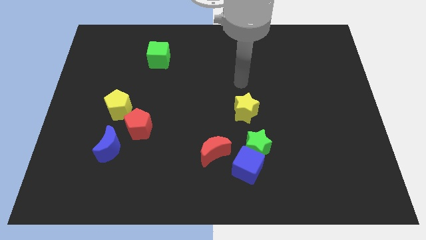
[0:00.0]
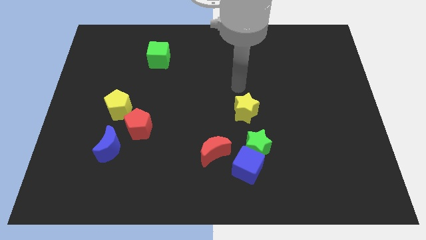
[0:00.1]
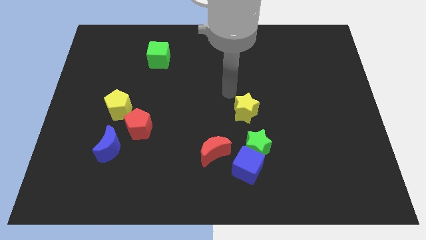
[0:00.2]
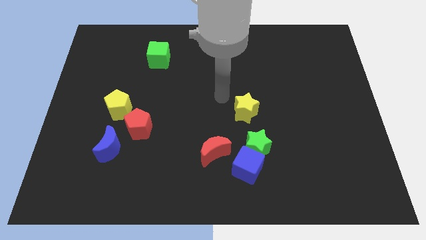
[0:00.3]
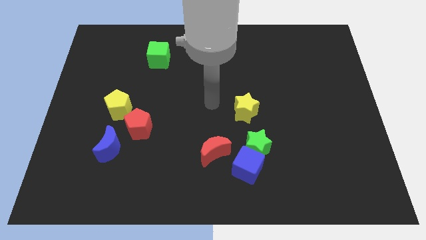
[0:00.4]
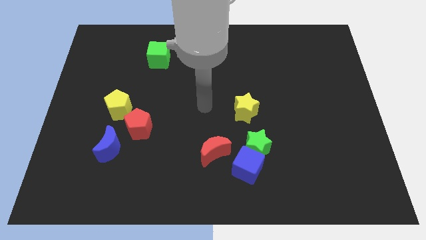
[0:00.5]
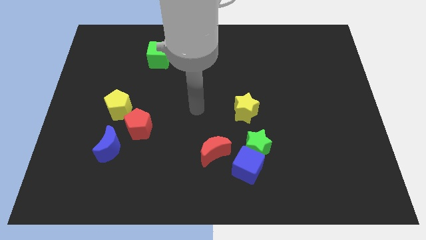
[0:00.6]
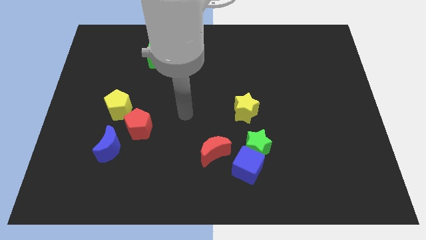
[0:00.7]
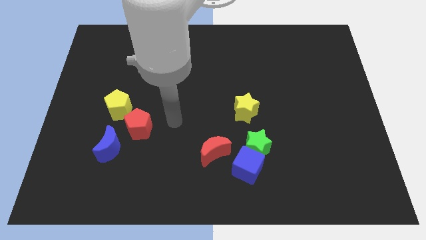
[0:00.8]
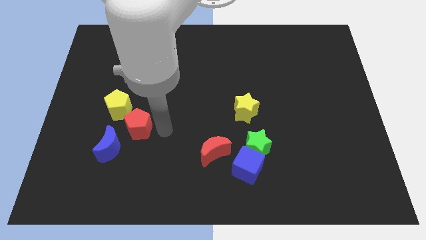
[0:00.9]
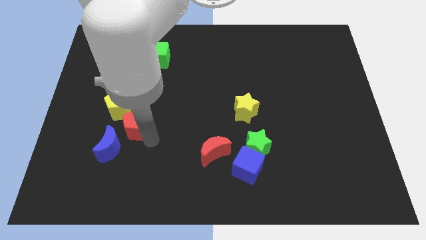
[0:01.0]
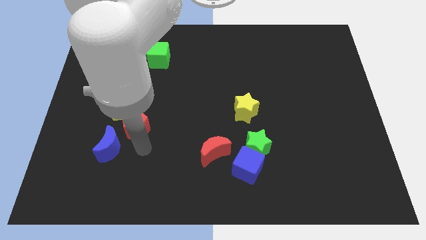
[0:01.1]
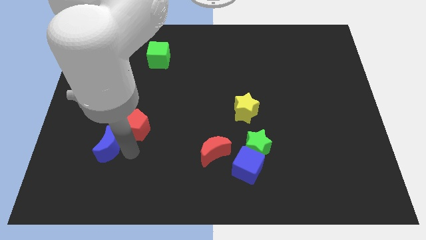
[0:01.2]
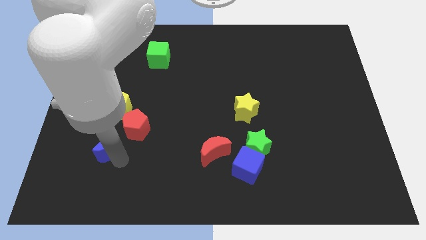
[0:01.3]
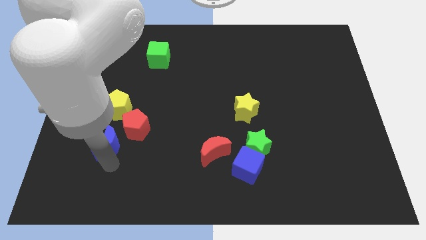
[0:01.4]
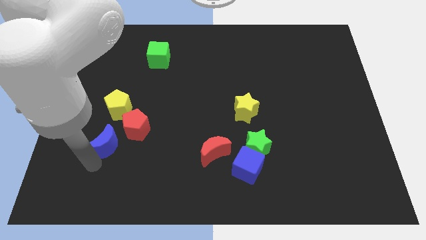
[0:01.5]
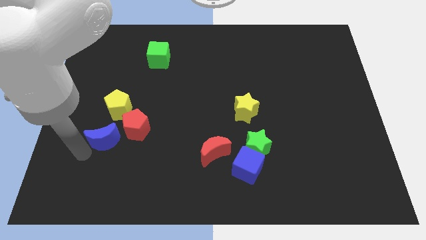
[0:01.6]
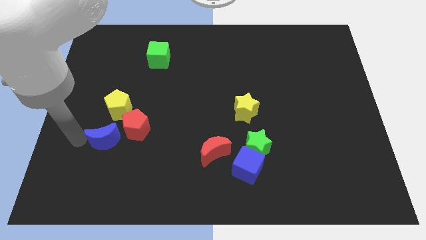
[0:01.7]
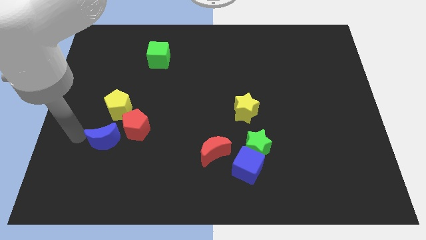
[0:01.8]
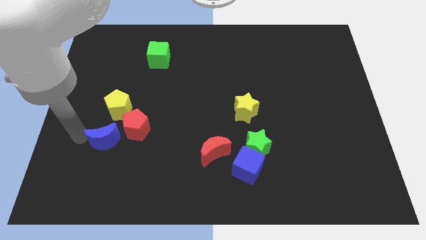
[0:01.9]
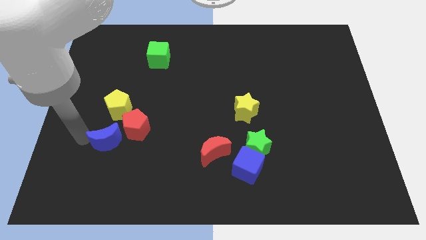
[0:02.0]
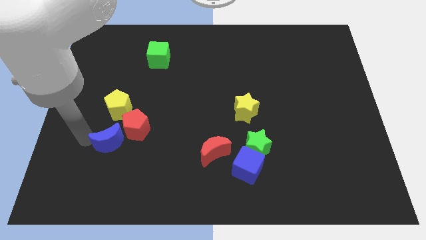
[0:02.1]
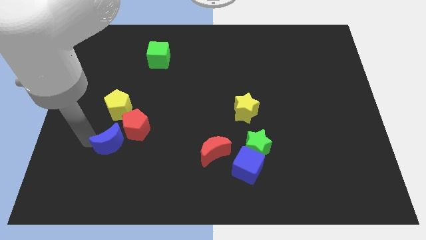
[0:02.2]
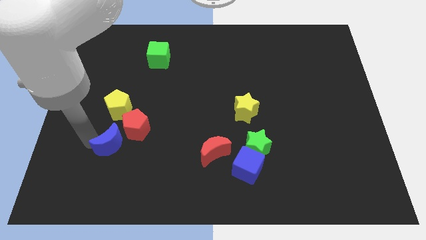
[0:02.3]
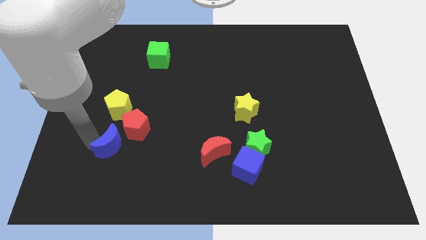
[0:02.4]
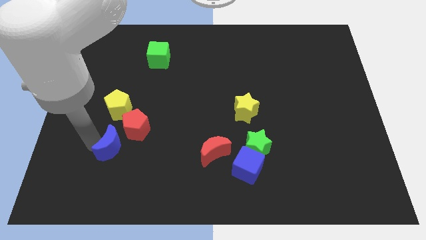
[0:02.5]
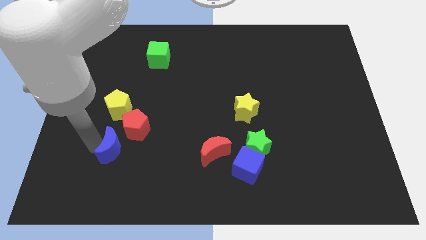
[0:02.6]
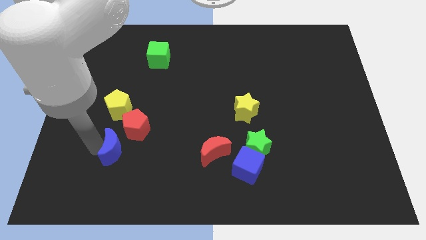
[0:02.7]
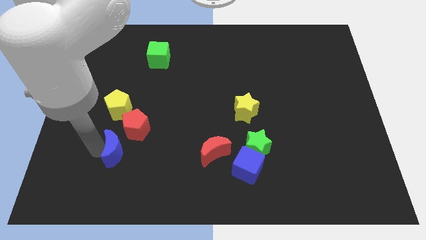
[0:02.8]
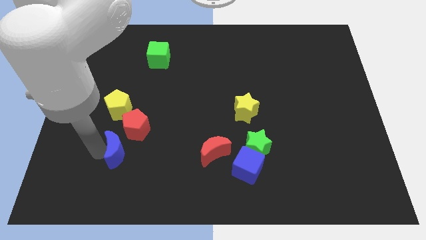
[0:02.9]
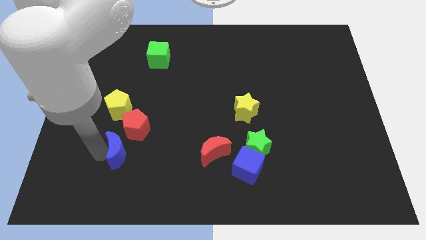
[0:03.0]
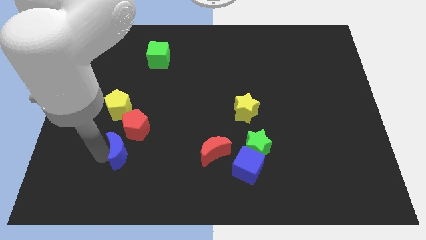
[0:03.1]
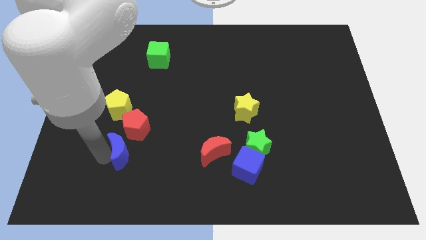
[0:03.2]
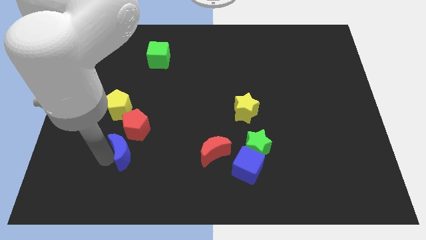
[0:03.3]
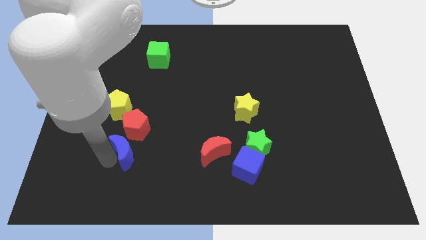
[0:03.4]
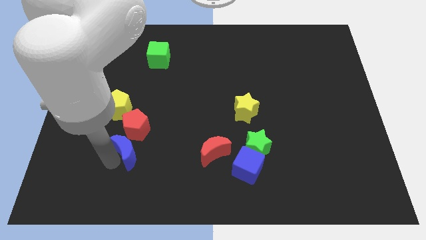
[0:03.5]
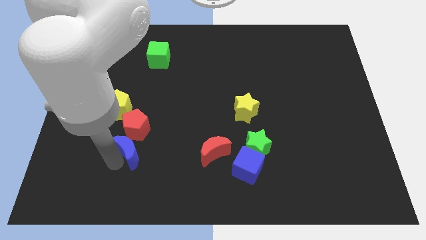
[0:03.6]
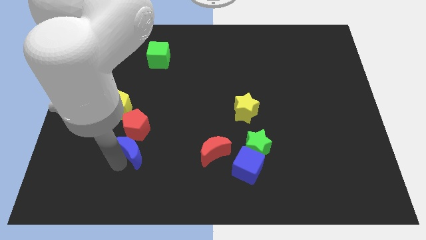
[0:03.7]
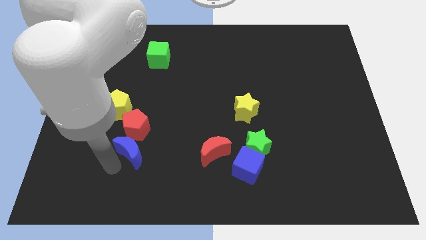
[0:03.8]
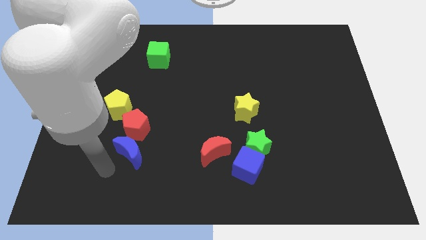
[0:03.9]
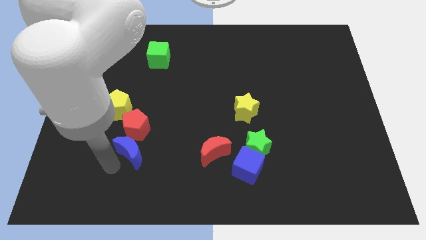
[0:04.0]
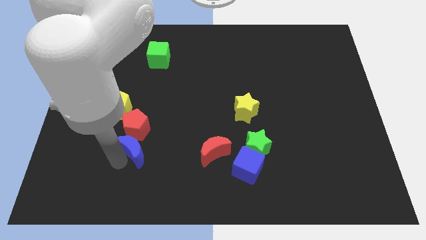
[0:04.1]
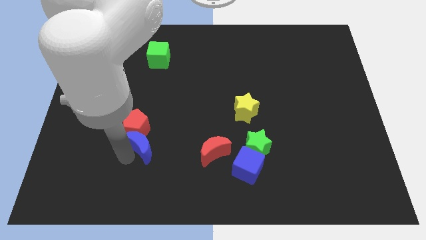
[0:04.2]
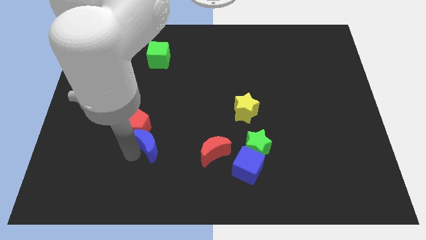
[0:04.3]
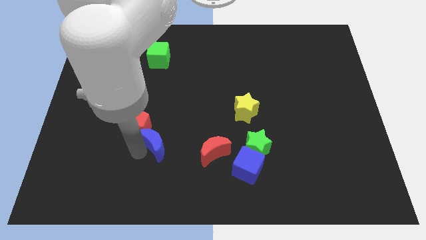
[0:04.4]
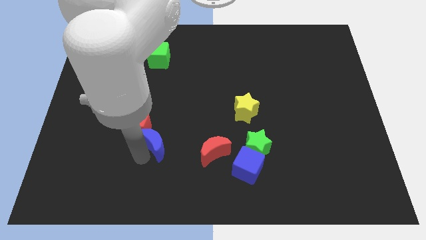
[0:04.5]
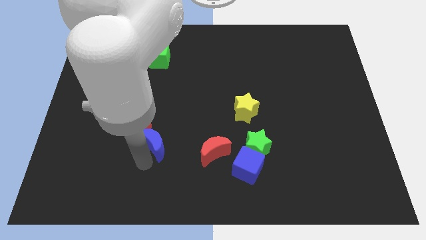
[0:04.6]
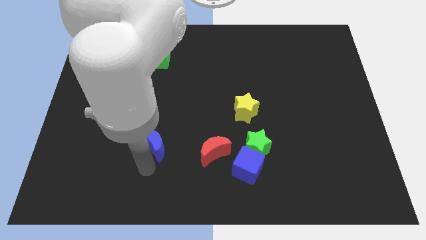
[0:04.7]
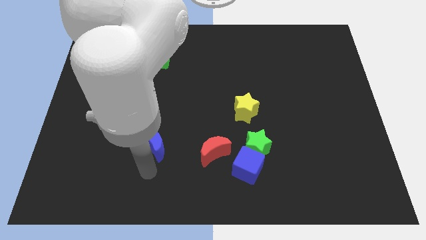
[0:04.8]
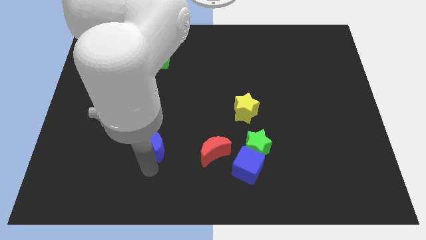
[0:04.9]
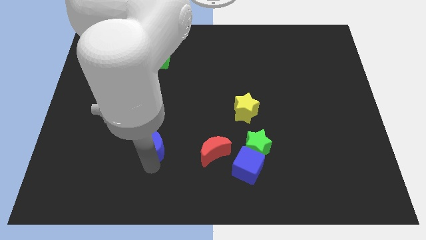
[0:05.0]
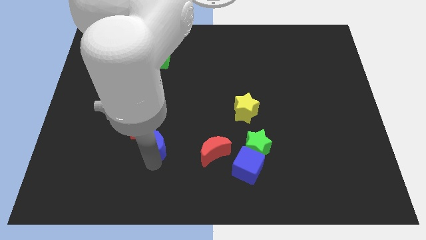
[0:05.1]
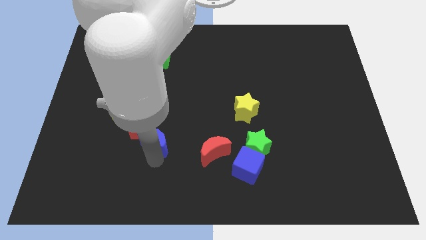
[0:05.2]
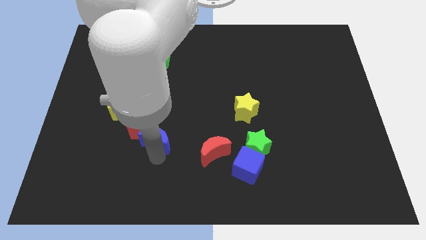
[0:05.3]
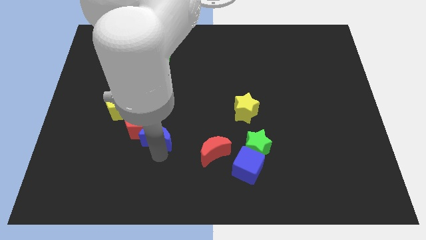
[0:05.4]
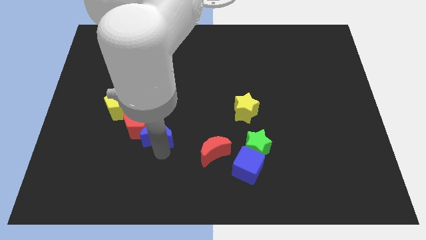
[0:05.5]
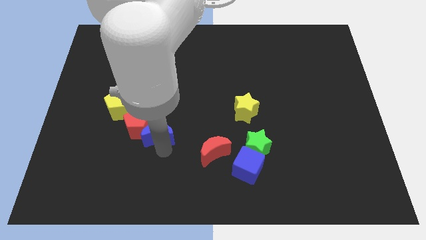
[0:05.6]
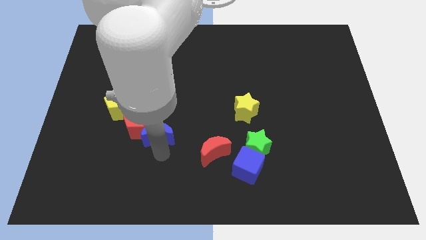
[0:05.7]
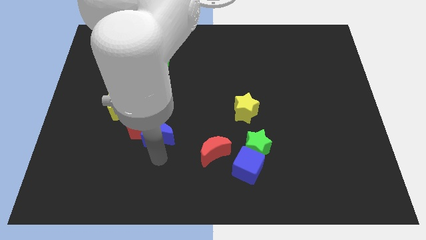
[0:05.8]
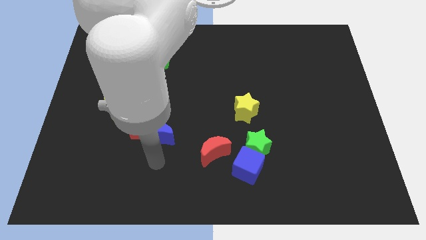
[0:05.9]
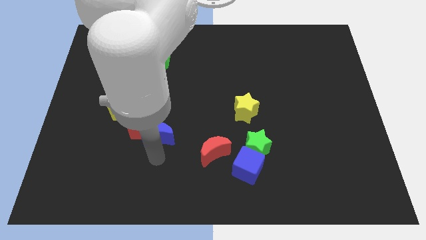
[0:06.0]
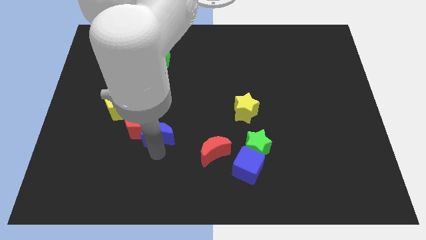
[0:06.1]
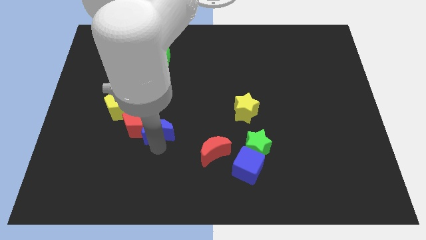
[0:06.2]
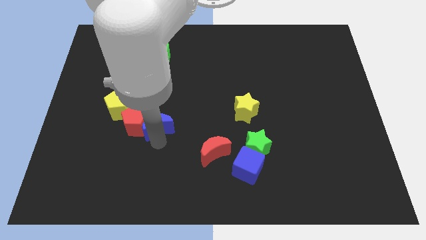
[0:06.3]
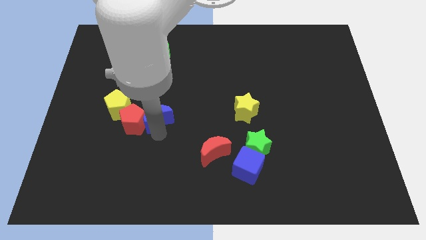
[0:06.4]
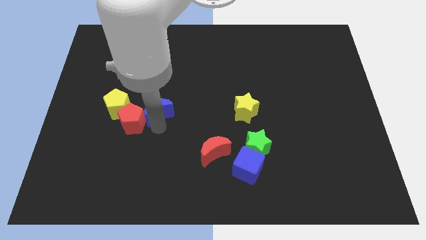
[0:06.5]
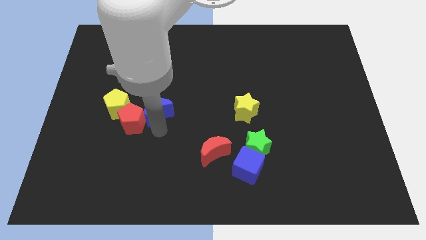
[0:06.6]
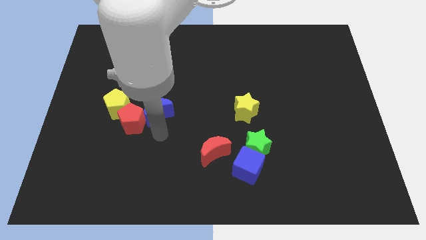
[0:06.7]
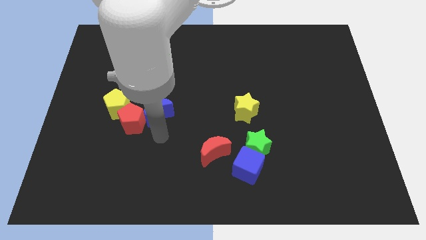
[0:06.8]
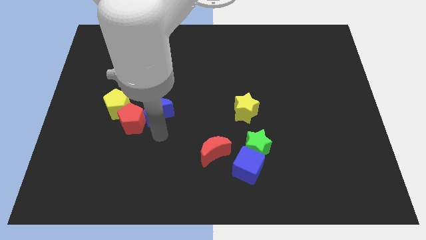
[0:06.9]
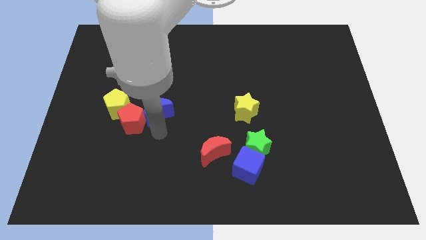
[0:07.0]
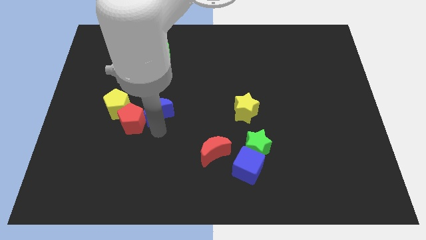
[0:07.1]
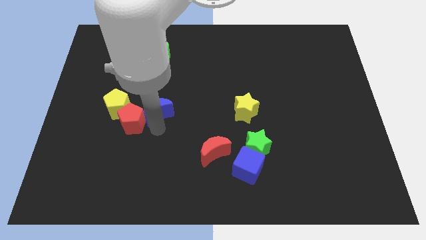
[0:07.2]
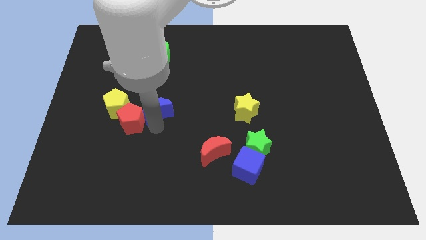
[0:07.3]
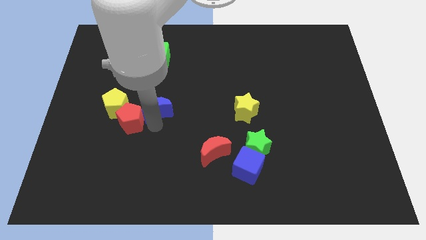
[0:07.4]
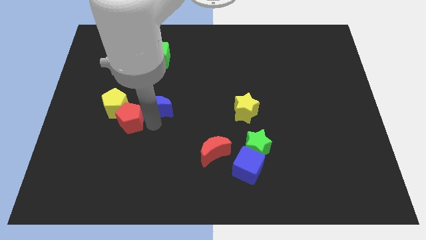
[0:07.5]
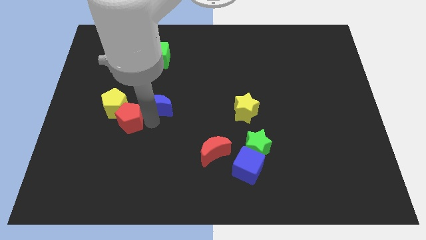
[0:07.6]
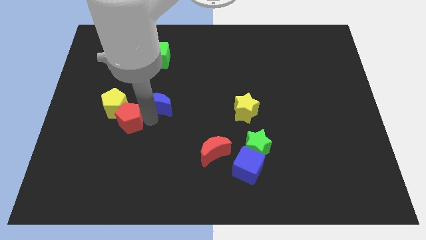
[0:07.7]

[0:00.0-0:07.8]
push the blue moon below the green cube
